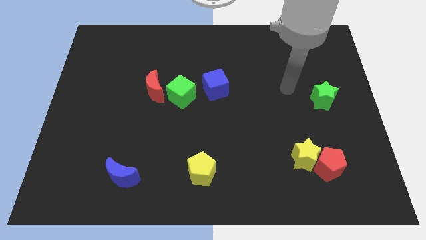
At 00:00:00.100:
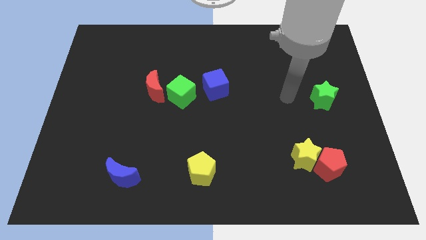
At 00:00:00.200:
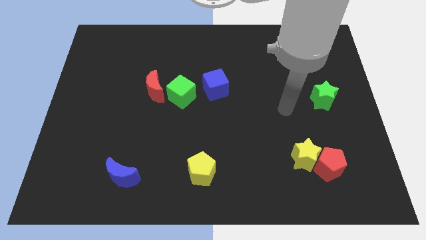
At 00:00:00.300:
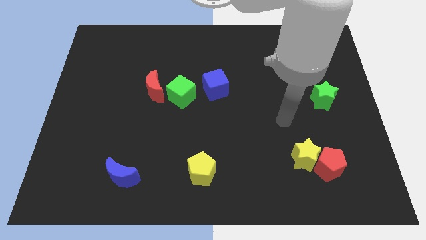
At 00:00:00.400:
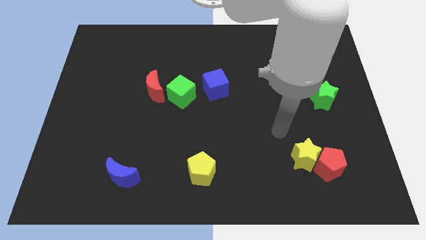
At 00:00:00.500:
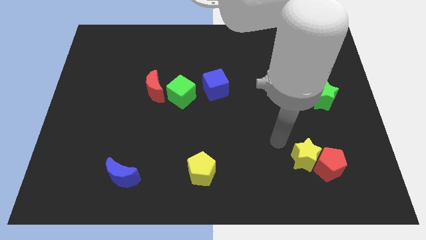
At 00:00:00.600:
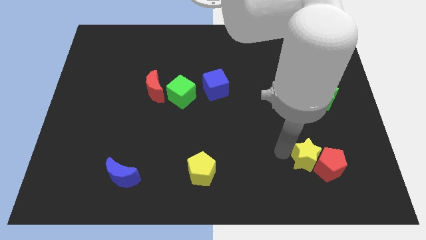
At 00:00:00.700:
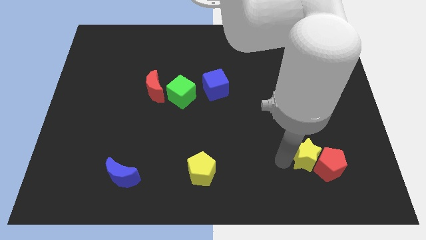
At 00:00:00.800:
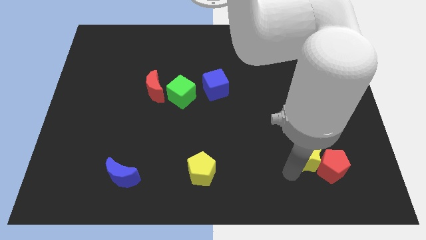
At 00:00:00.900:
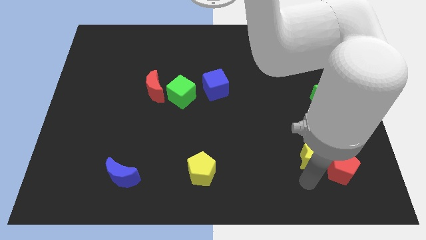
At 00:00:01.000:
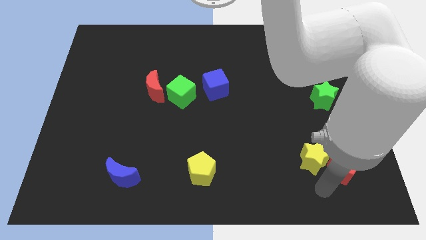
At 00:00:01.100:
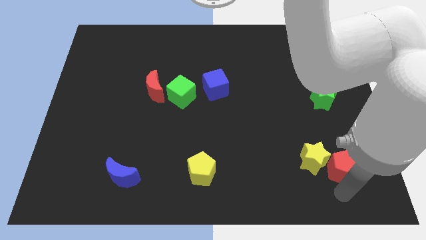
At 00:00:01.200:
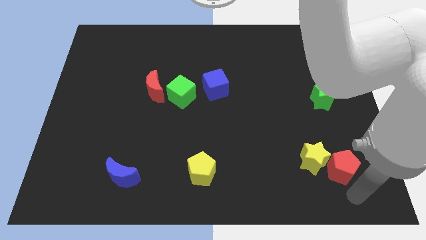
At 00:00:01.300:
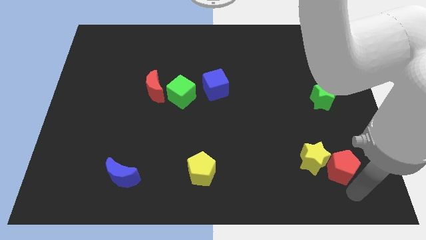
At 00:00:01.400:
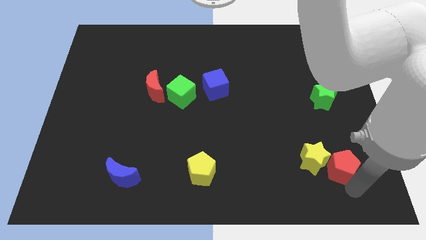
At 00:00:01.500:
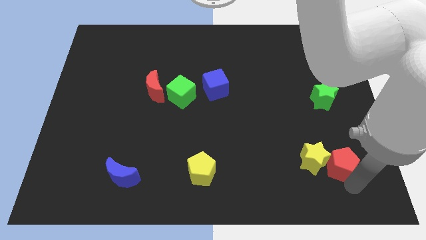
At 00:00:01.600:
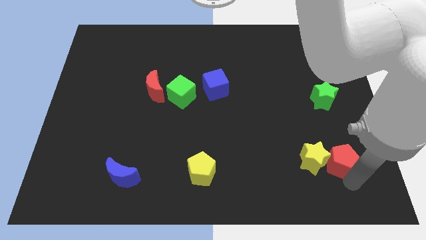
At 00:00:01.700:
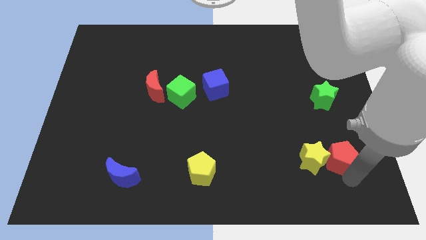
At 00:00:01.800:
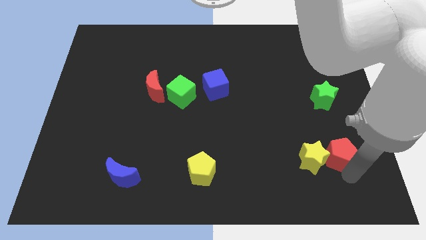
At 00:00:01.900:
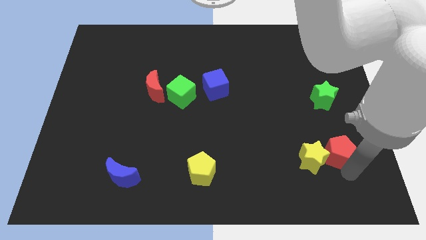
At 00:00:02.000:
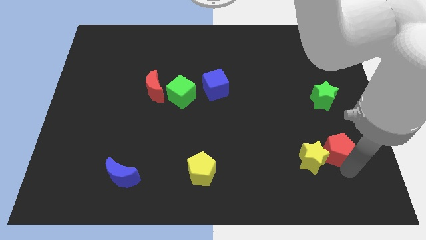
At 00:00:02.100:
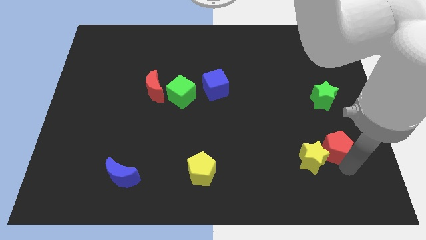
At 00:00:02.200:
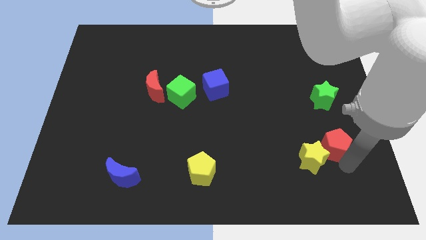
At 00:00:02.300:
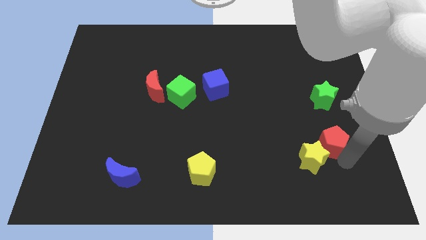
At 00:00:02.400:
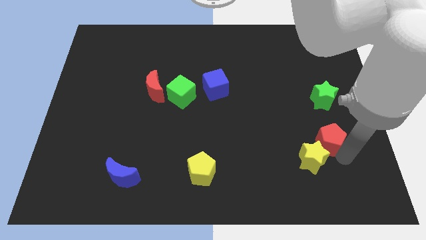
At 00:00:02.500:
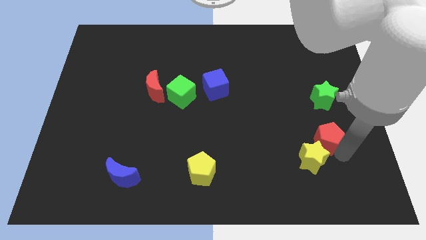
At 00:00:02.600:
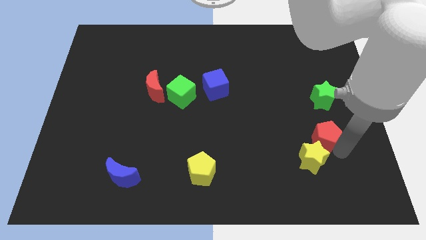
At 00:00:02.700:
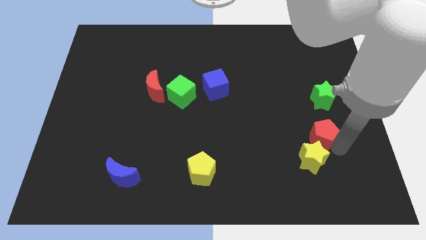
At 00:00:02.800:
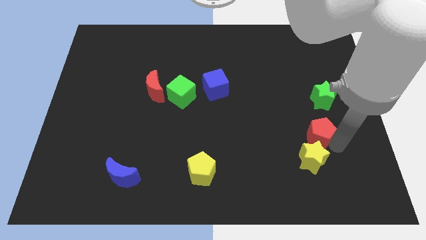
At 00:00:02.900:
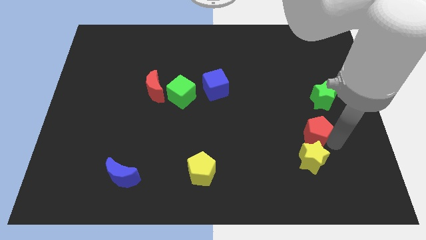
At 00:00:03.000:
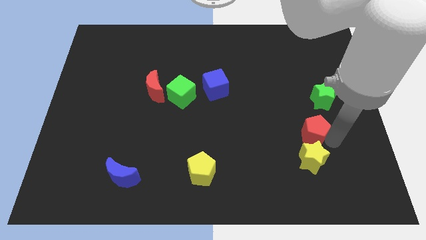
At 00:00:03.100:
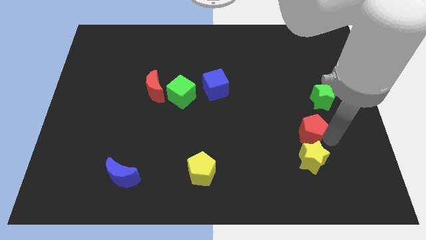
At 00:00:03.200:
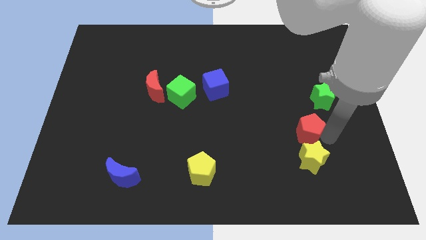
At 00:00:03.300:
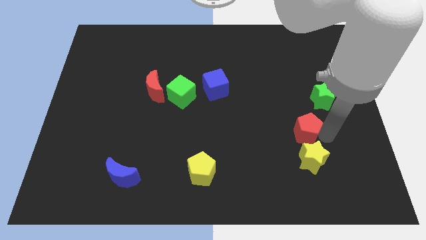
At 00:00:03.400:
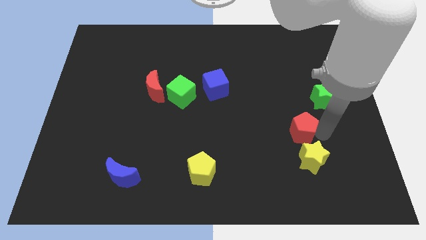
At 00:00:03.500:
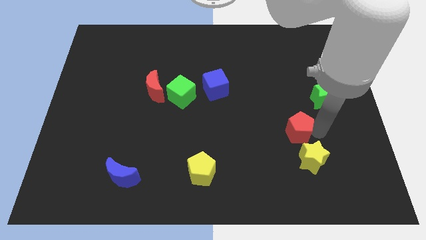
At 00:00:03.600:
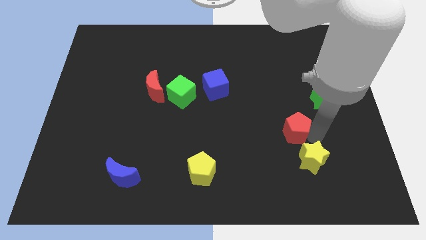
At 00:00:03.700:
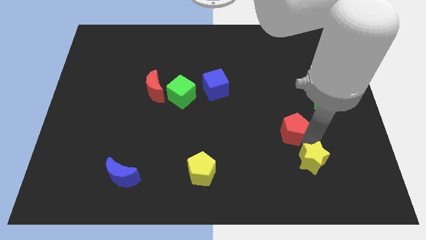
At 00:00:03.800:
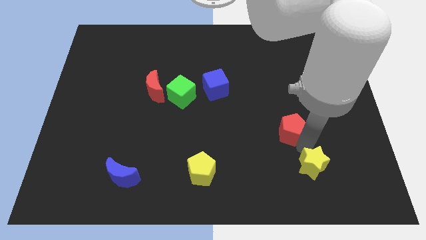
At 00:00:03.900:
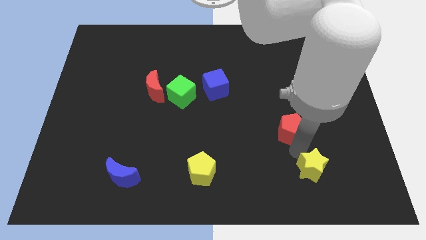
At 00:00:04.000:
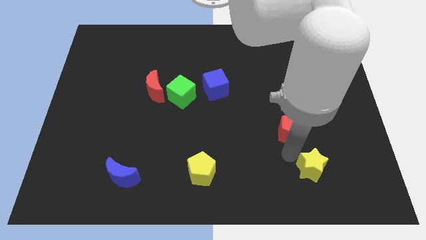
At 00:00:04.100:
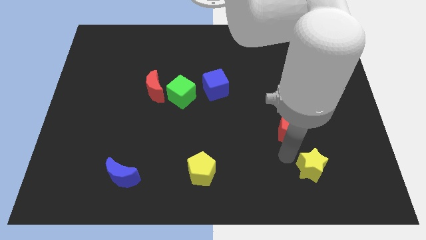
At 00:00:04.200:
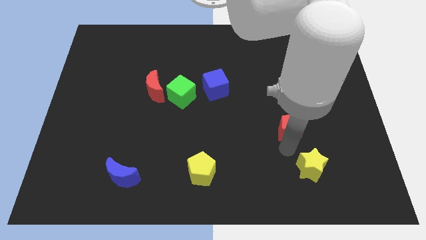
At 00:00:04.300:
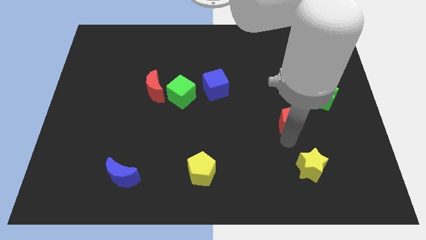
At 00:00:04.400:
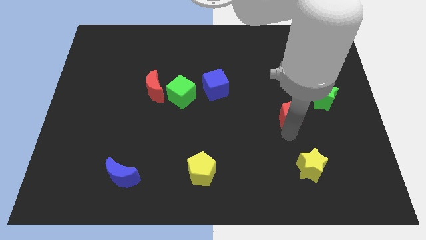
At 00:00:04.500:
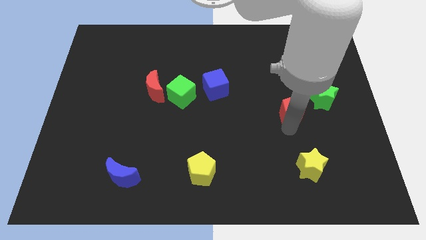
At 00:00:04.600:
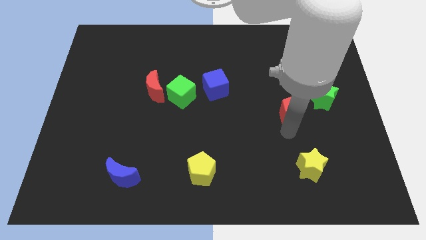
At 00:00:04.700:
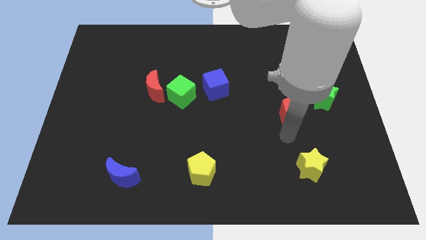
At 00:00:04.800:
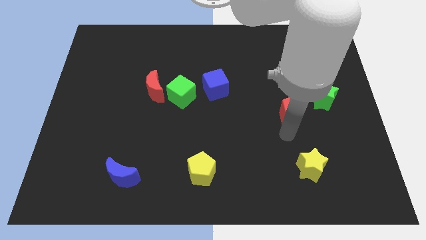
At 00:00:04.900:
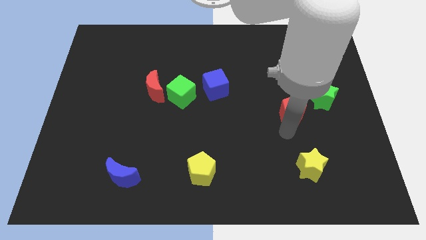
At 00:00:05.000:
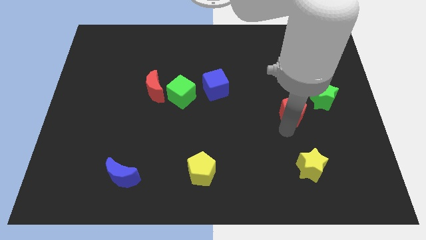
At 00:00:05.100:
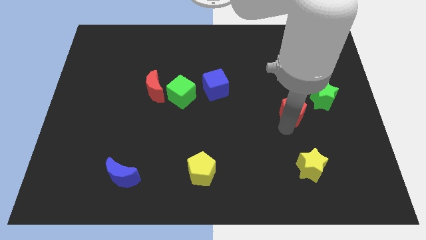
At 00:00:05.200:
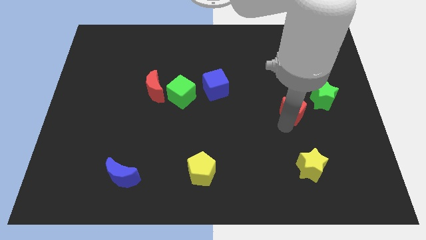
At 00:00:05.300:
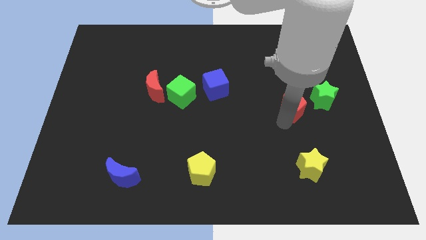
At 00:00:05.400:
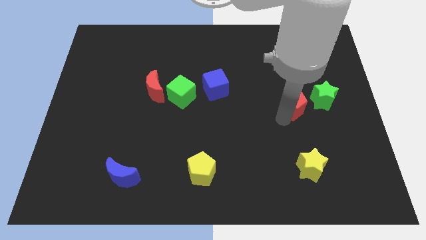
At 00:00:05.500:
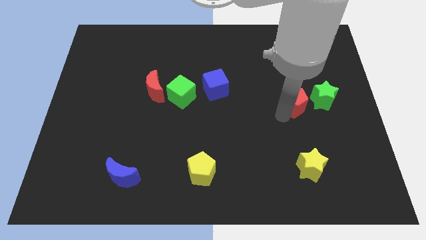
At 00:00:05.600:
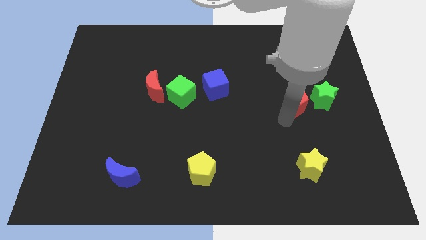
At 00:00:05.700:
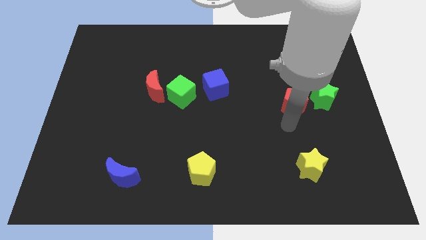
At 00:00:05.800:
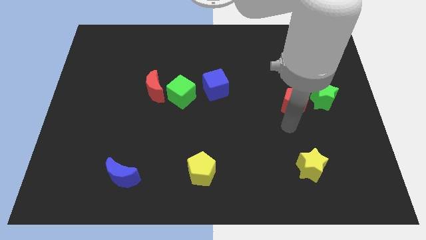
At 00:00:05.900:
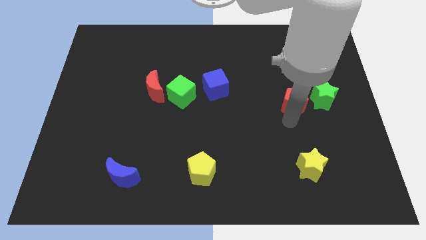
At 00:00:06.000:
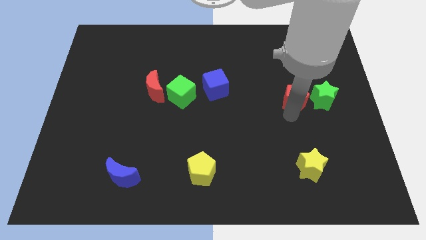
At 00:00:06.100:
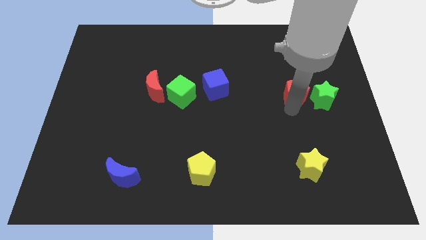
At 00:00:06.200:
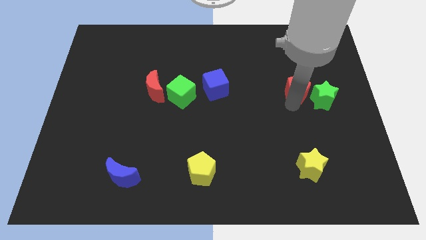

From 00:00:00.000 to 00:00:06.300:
push the red pentagon upwards

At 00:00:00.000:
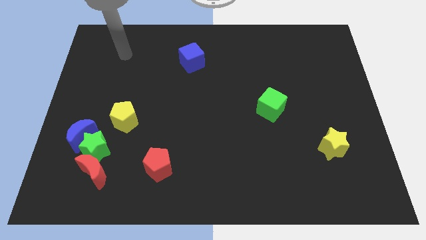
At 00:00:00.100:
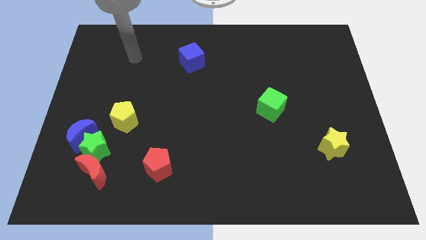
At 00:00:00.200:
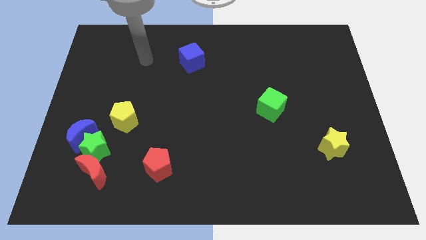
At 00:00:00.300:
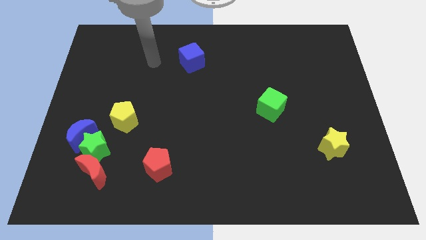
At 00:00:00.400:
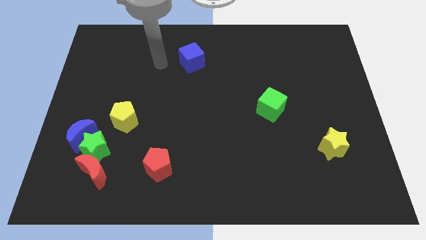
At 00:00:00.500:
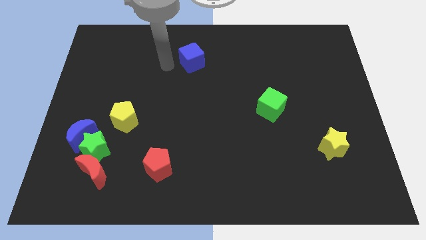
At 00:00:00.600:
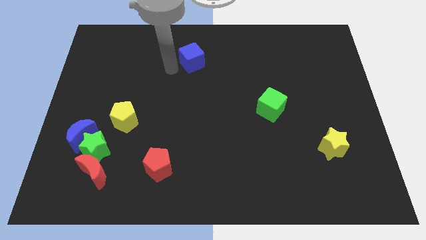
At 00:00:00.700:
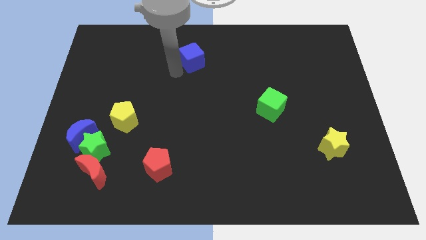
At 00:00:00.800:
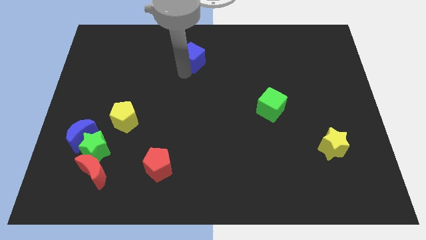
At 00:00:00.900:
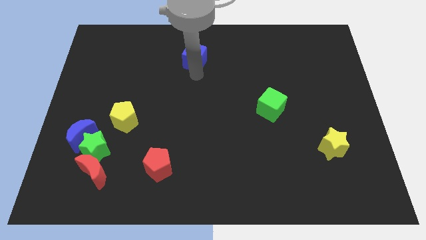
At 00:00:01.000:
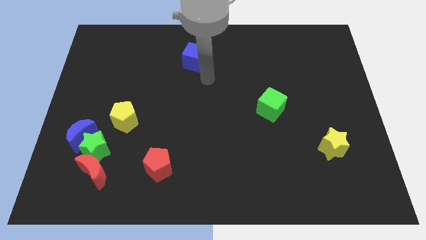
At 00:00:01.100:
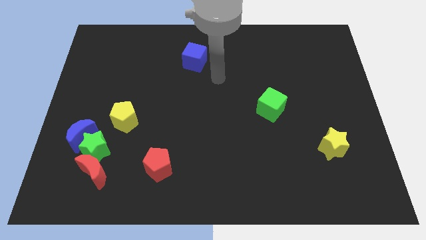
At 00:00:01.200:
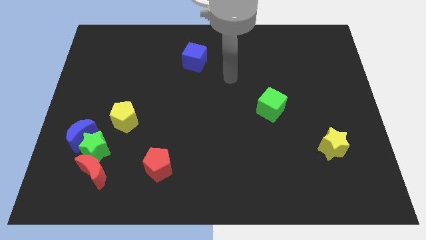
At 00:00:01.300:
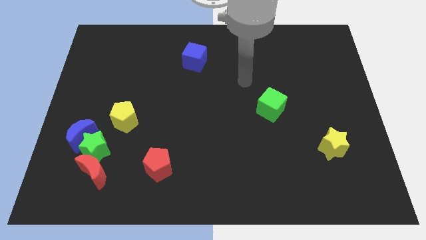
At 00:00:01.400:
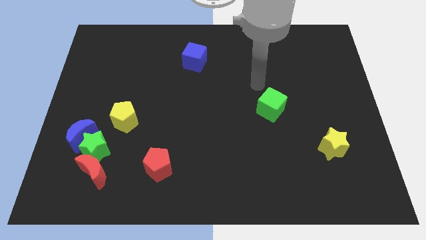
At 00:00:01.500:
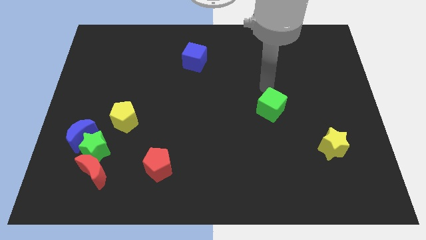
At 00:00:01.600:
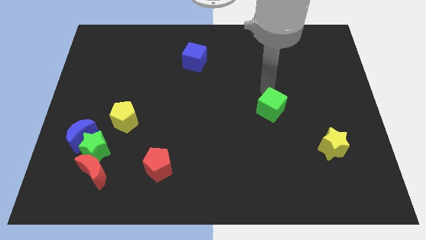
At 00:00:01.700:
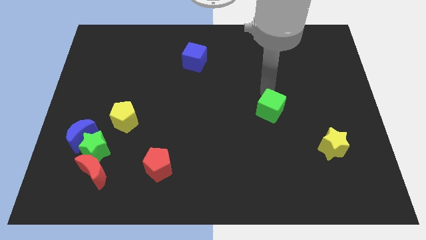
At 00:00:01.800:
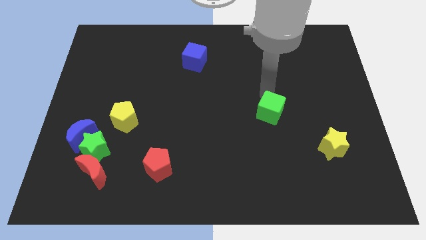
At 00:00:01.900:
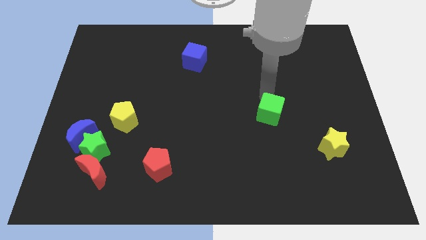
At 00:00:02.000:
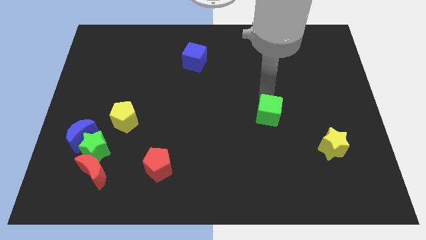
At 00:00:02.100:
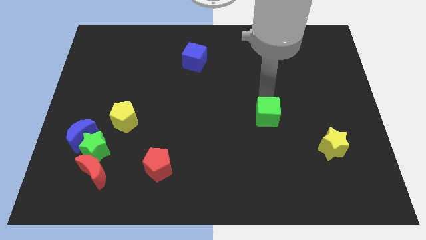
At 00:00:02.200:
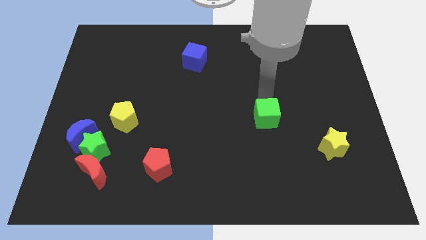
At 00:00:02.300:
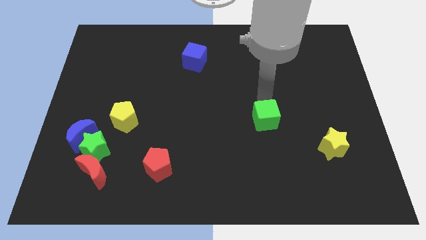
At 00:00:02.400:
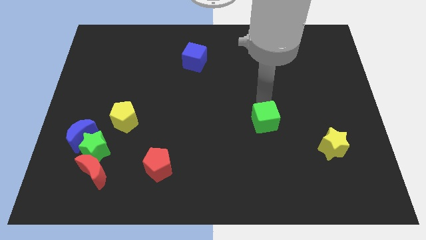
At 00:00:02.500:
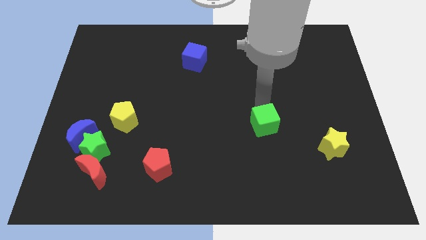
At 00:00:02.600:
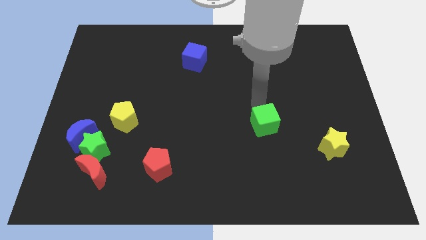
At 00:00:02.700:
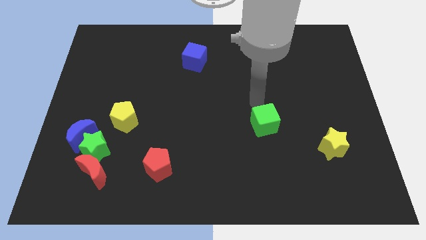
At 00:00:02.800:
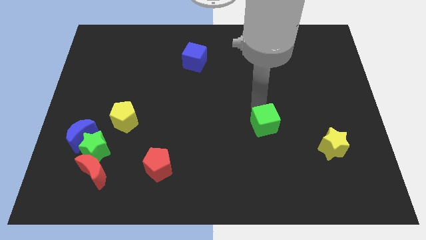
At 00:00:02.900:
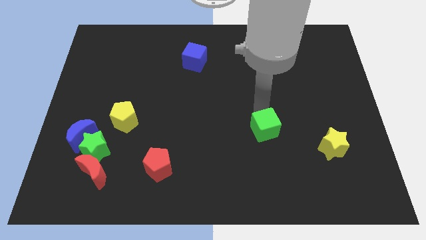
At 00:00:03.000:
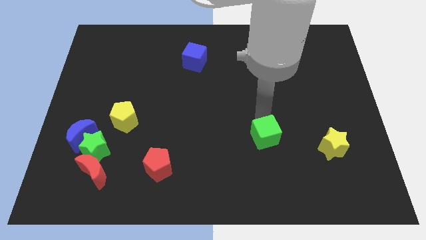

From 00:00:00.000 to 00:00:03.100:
move the green cube a bit downwards
